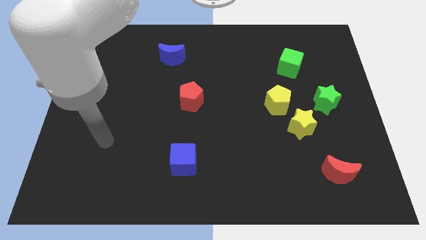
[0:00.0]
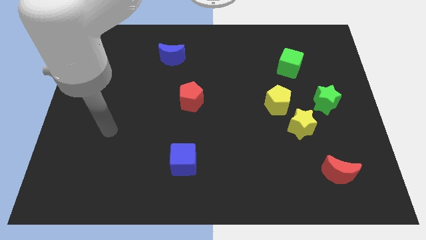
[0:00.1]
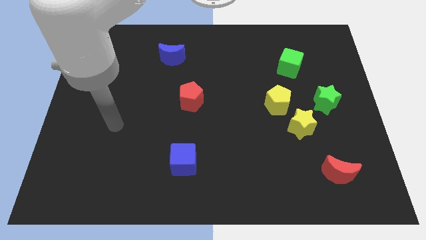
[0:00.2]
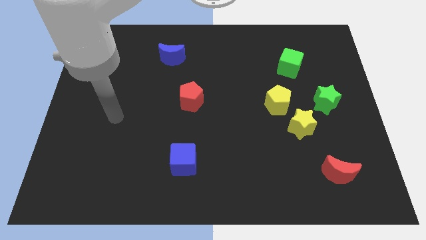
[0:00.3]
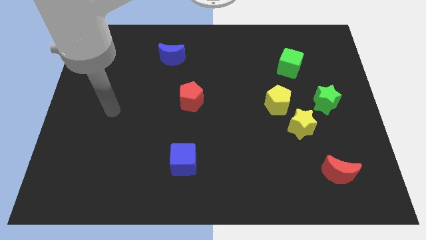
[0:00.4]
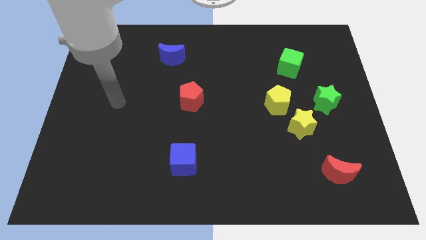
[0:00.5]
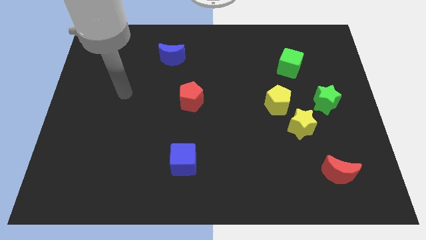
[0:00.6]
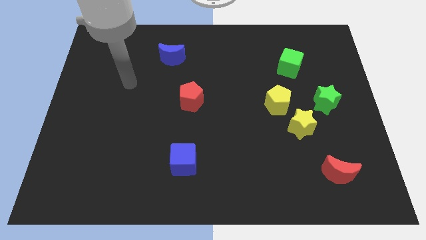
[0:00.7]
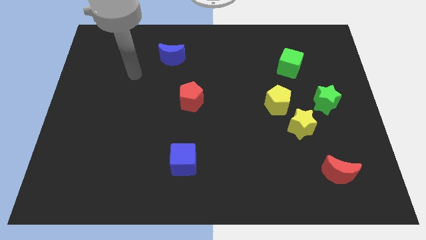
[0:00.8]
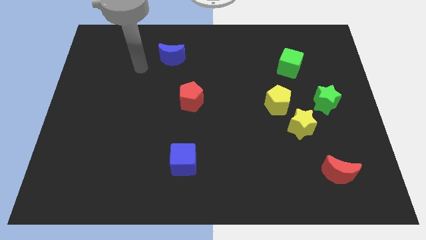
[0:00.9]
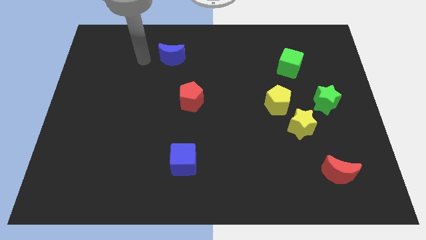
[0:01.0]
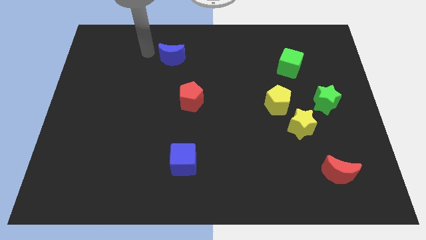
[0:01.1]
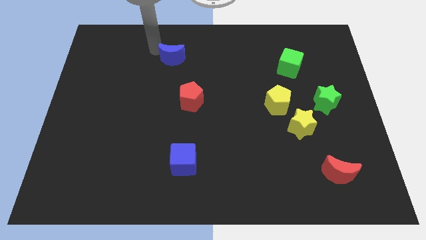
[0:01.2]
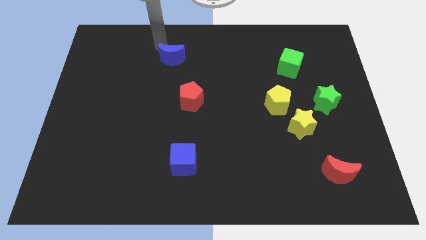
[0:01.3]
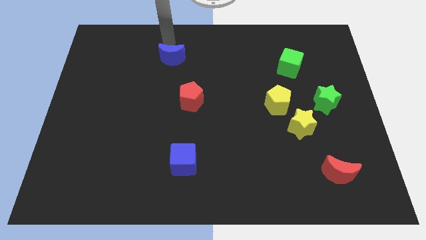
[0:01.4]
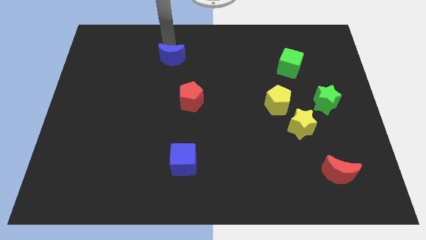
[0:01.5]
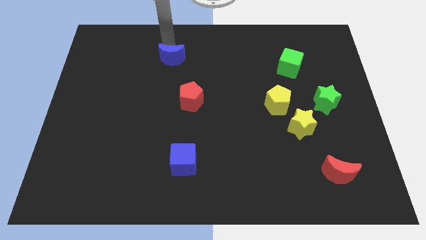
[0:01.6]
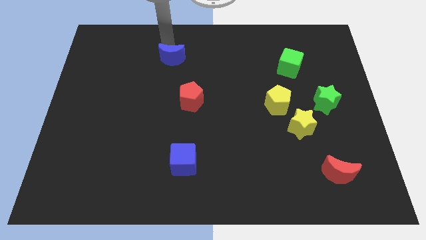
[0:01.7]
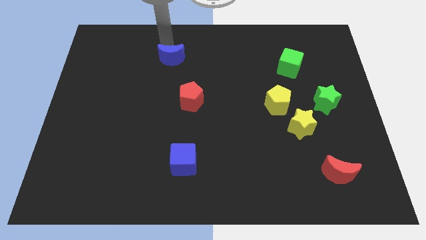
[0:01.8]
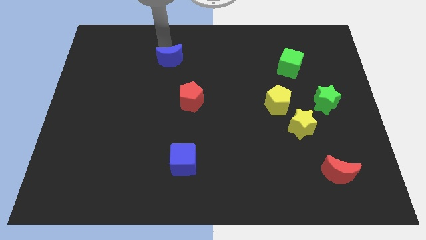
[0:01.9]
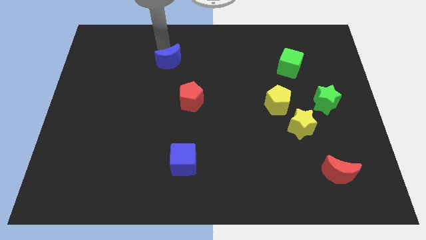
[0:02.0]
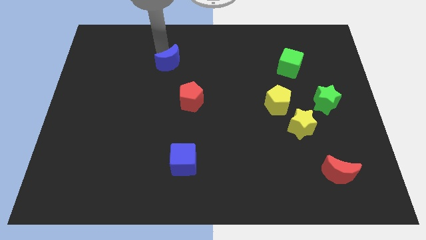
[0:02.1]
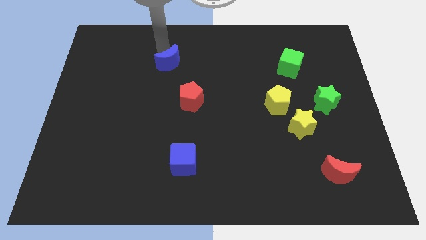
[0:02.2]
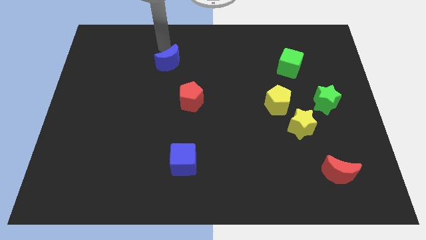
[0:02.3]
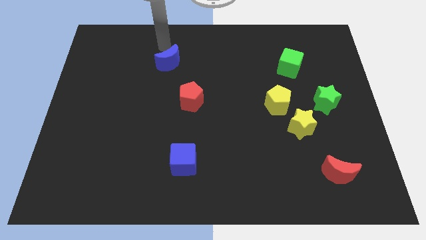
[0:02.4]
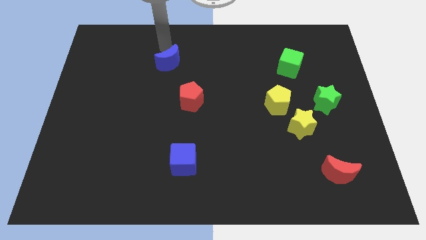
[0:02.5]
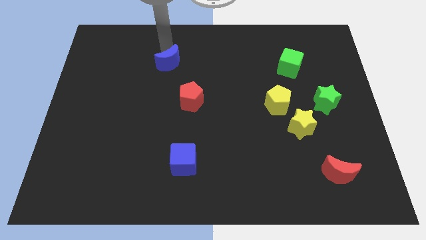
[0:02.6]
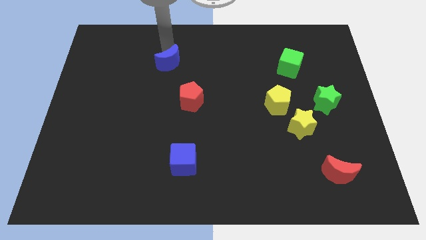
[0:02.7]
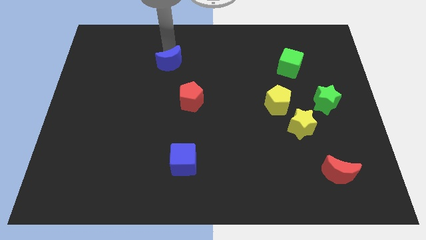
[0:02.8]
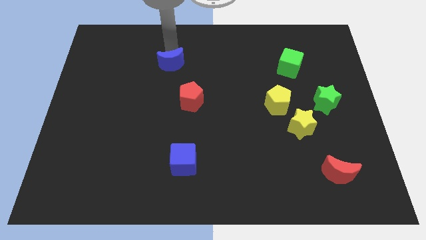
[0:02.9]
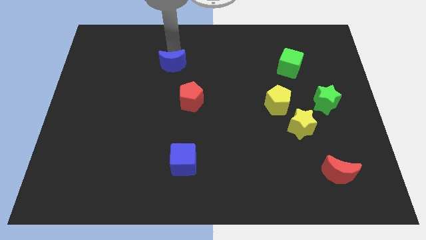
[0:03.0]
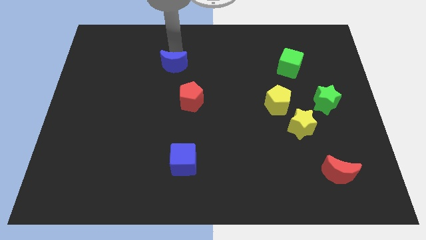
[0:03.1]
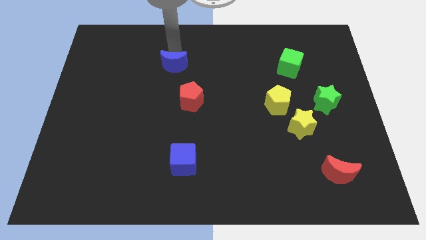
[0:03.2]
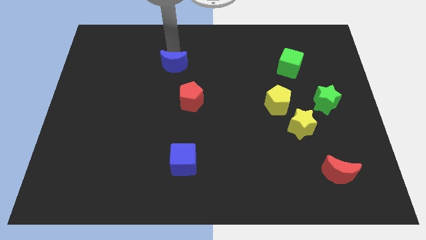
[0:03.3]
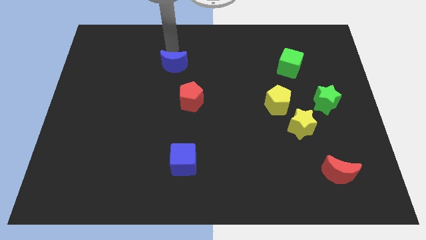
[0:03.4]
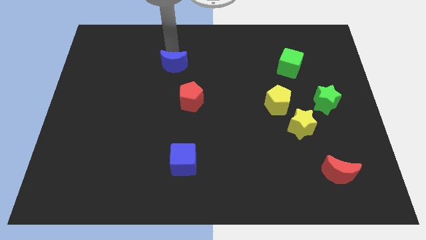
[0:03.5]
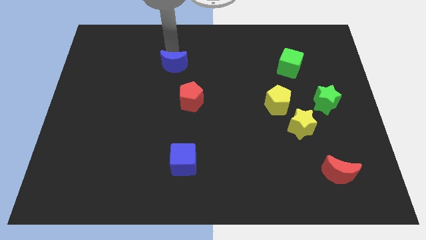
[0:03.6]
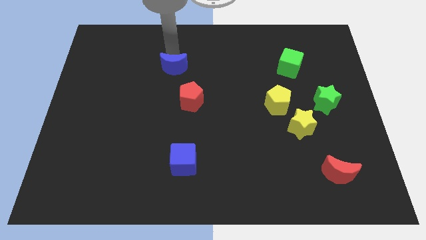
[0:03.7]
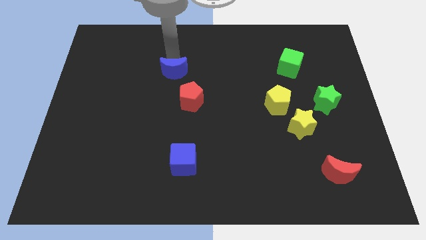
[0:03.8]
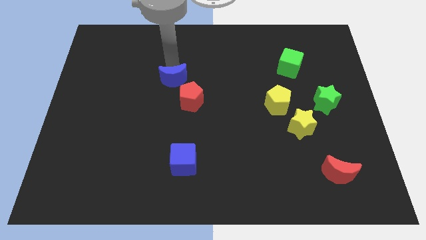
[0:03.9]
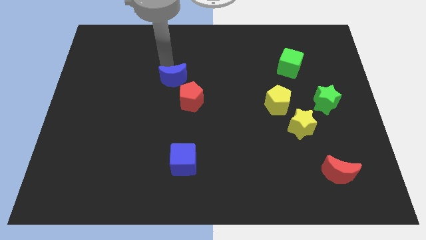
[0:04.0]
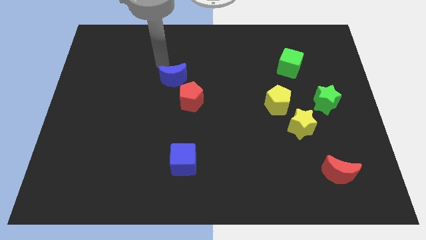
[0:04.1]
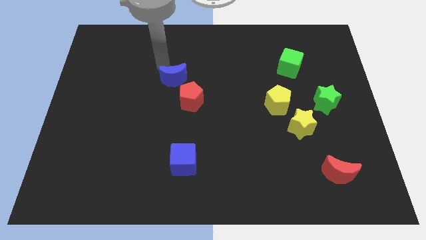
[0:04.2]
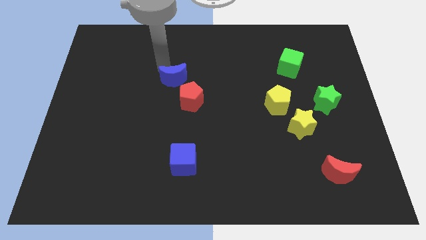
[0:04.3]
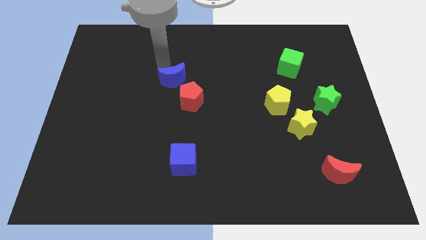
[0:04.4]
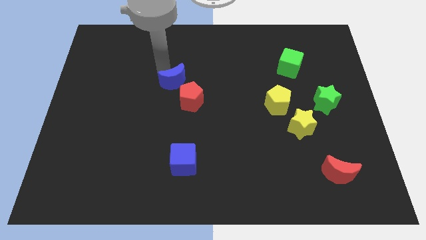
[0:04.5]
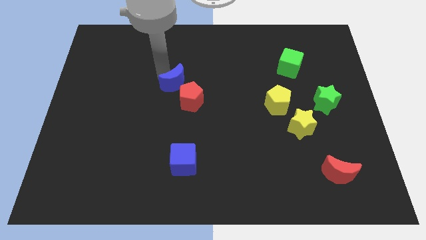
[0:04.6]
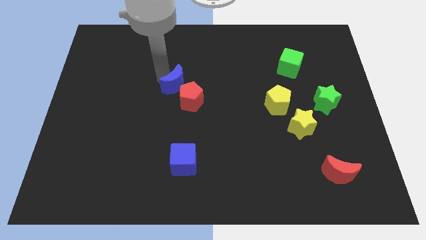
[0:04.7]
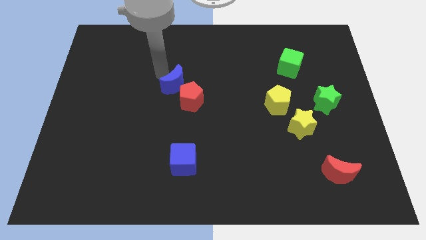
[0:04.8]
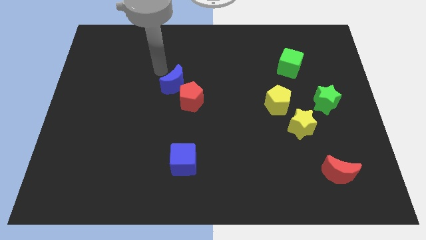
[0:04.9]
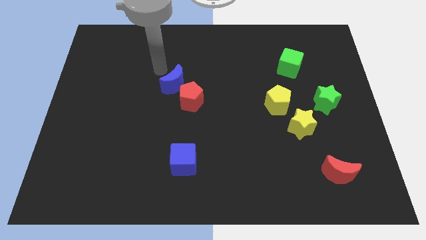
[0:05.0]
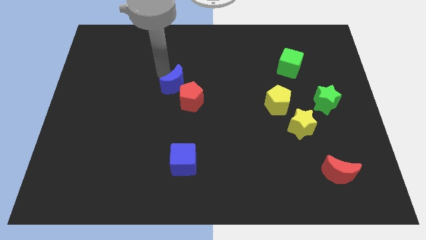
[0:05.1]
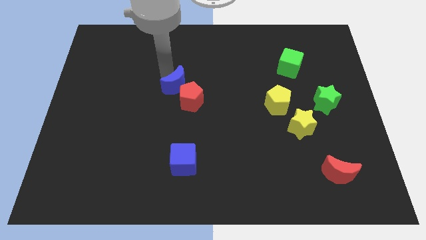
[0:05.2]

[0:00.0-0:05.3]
move the blue moon next to the red pentagon

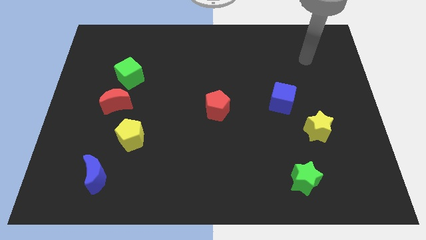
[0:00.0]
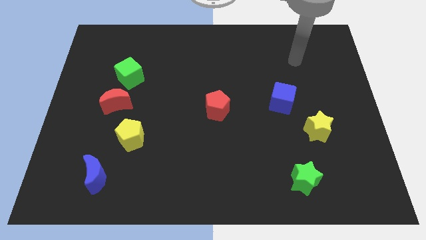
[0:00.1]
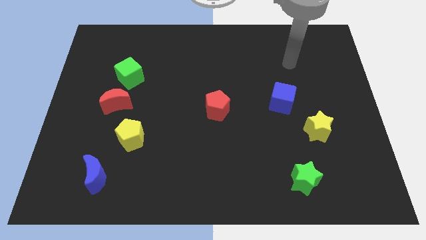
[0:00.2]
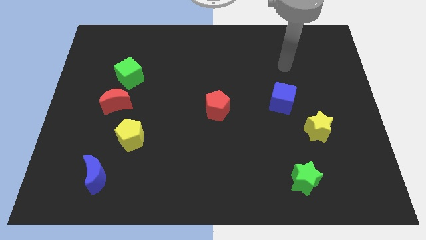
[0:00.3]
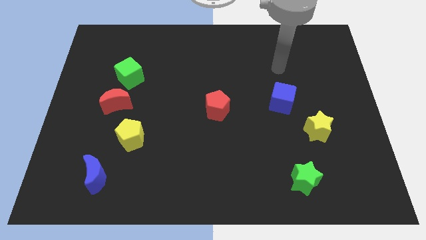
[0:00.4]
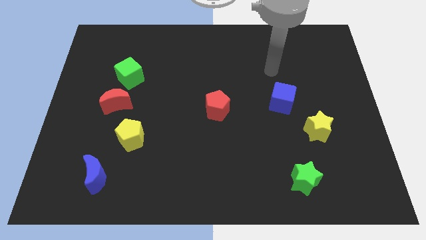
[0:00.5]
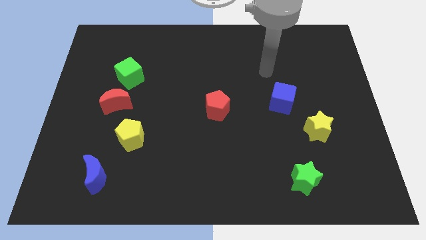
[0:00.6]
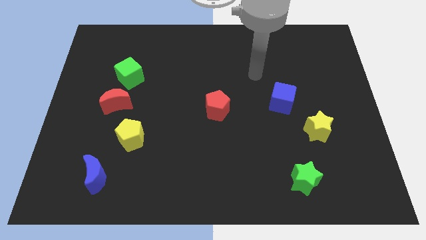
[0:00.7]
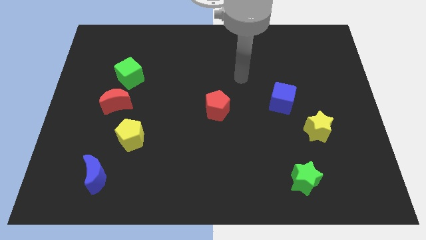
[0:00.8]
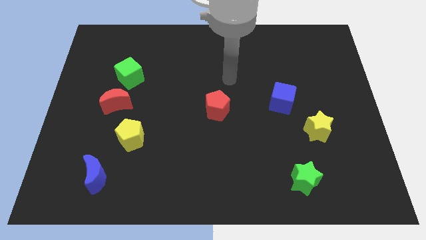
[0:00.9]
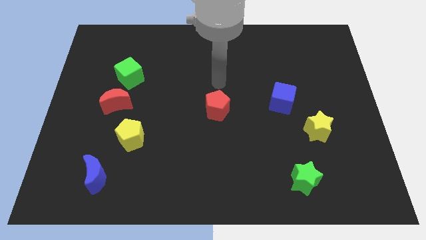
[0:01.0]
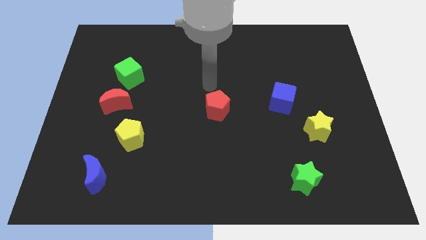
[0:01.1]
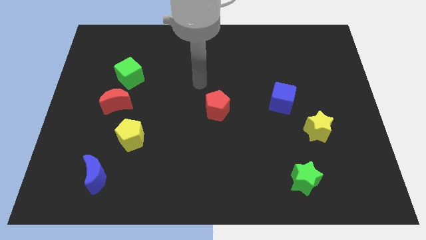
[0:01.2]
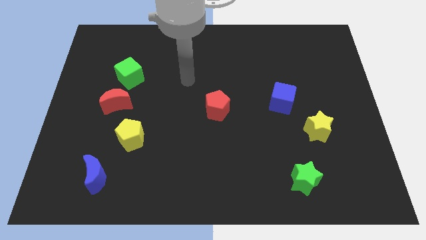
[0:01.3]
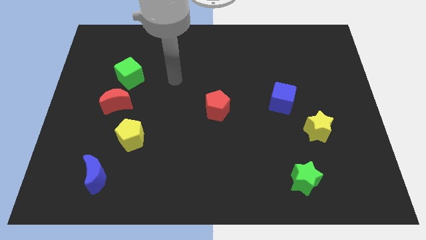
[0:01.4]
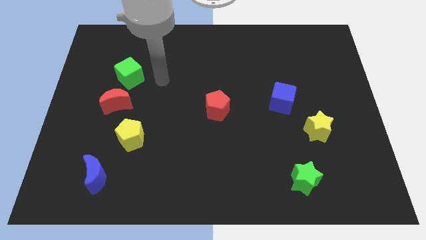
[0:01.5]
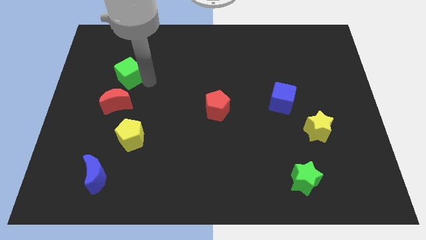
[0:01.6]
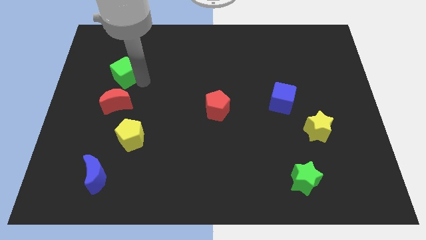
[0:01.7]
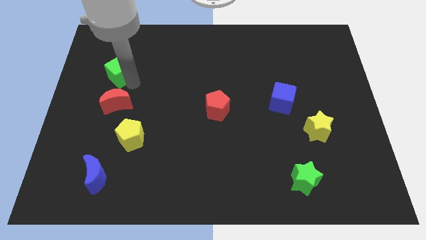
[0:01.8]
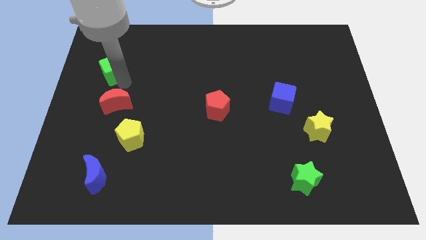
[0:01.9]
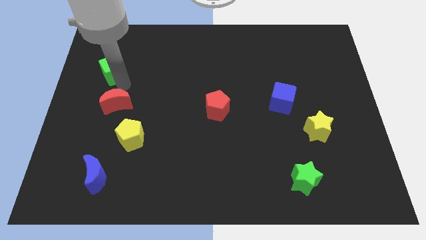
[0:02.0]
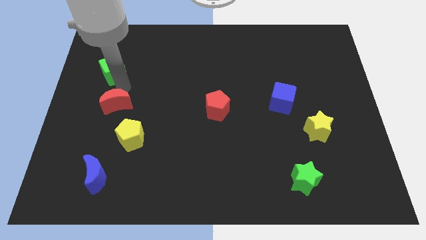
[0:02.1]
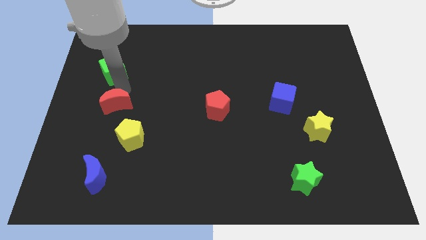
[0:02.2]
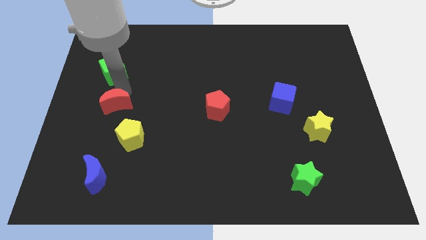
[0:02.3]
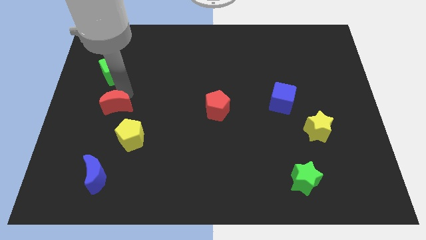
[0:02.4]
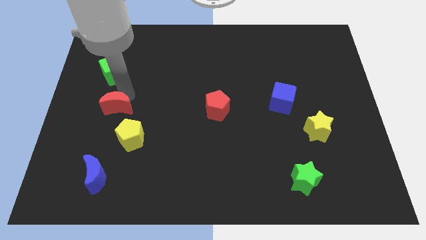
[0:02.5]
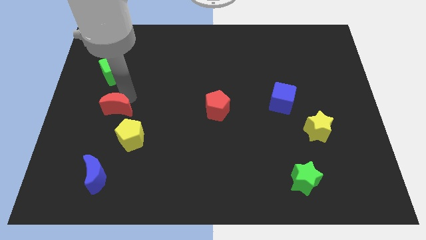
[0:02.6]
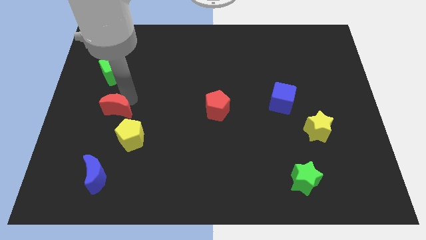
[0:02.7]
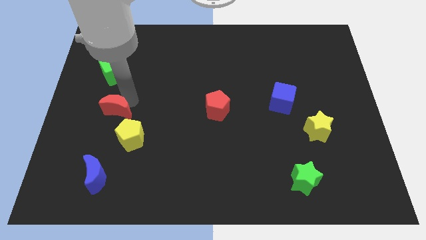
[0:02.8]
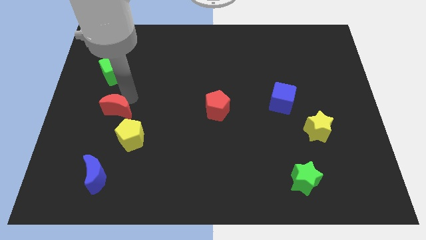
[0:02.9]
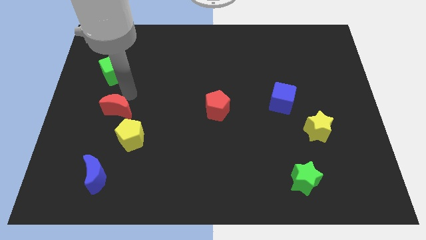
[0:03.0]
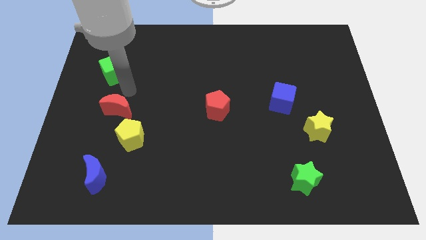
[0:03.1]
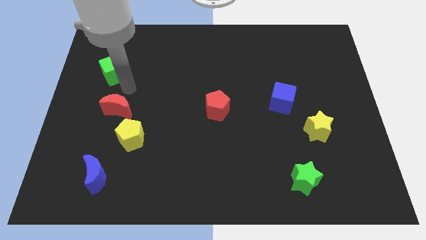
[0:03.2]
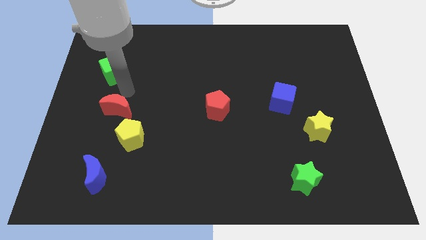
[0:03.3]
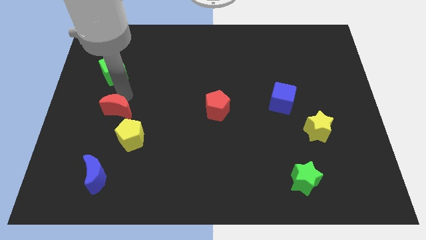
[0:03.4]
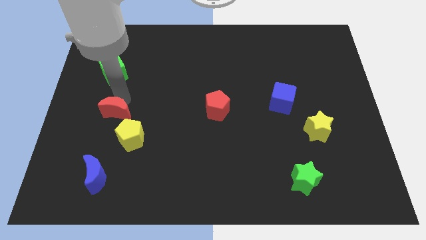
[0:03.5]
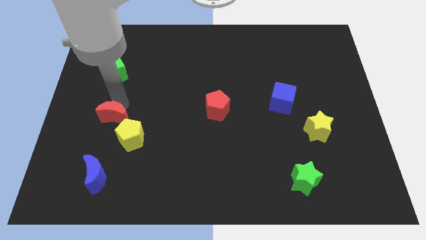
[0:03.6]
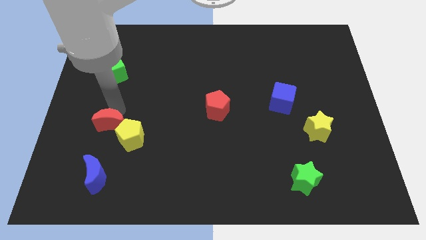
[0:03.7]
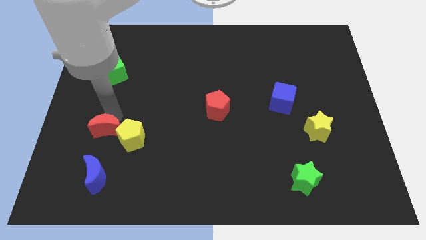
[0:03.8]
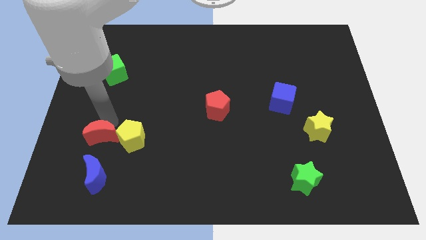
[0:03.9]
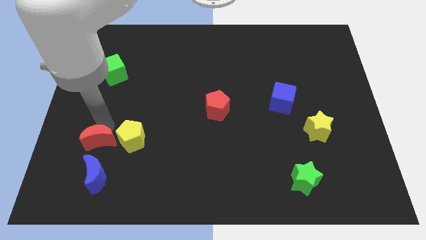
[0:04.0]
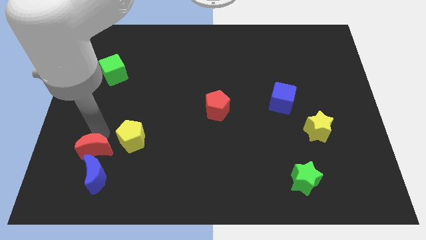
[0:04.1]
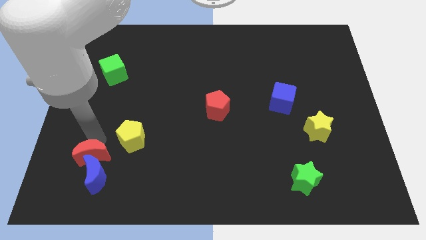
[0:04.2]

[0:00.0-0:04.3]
put the red moon towards the blue moon
